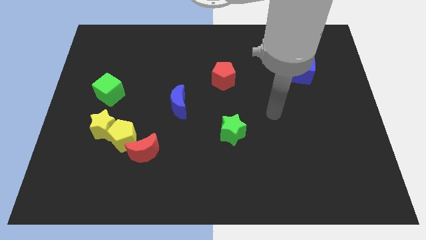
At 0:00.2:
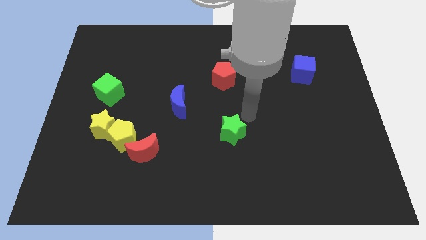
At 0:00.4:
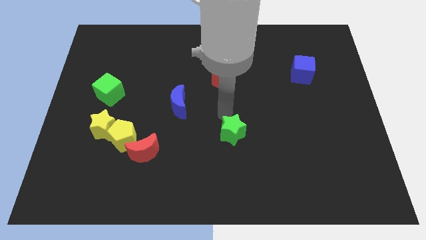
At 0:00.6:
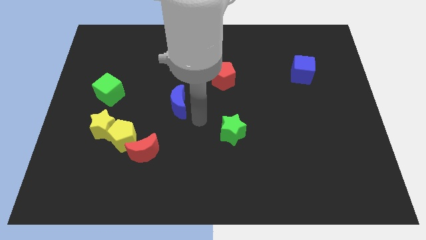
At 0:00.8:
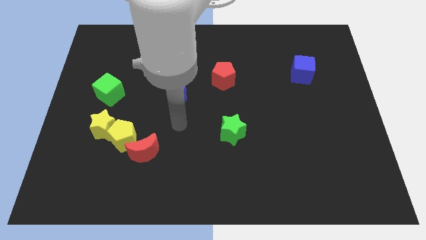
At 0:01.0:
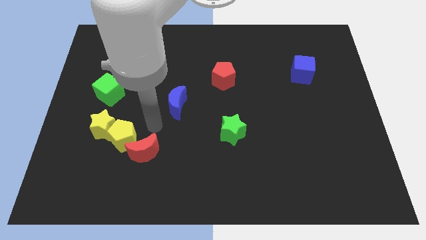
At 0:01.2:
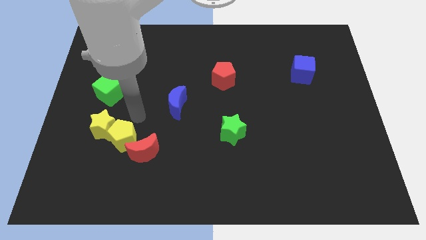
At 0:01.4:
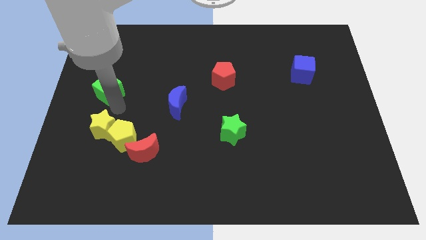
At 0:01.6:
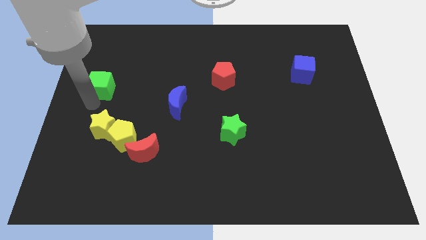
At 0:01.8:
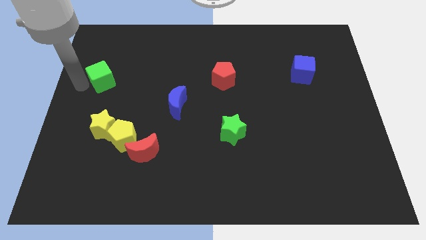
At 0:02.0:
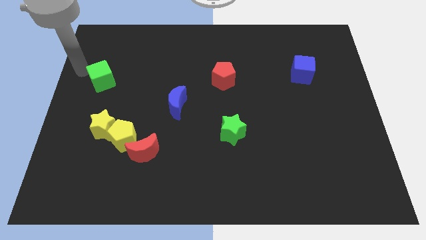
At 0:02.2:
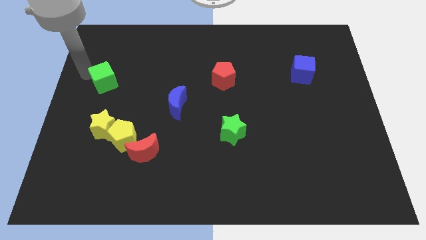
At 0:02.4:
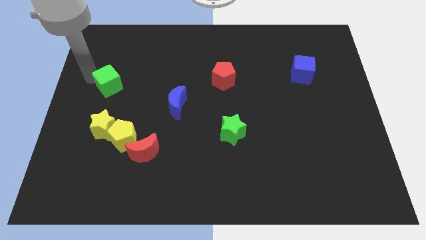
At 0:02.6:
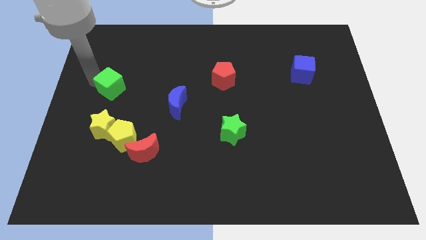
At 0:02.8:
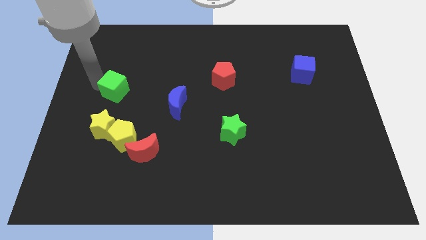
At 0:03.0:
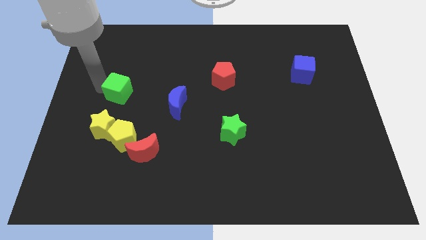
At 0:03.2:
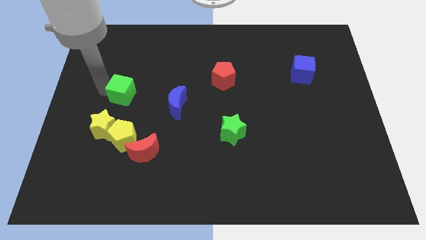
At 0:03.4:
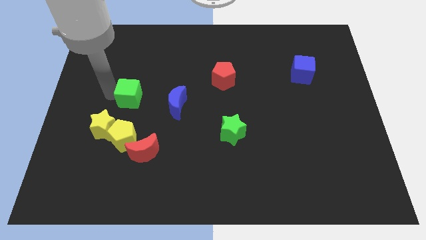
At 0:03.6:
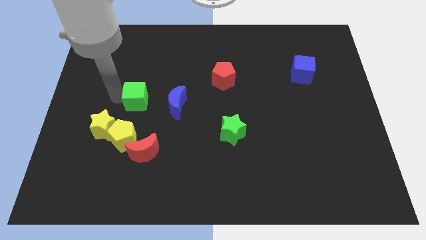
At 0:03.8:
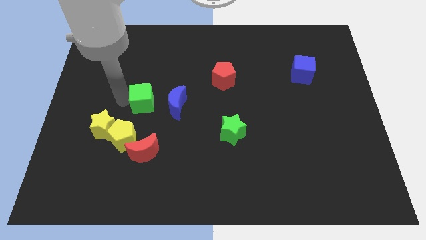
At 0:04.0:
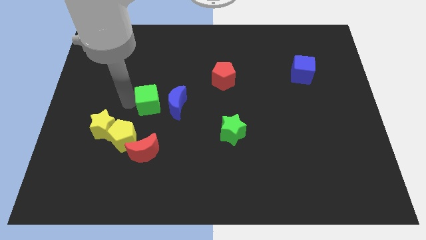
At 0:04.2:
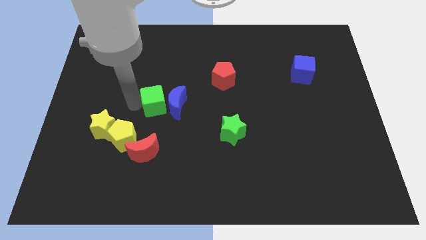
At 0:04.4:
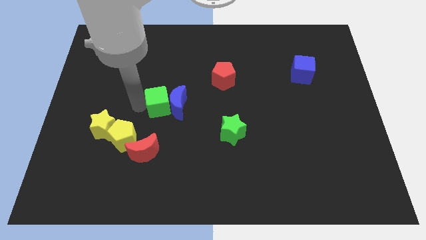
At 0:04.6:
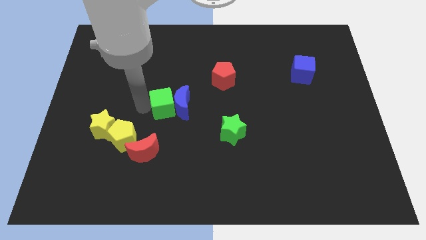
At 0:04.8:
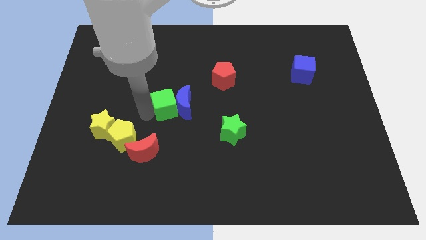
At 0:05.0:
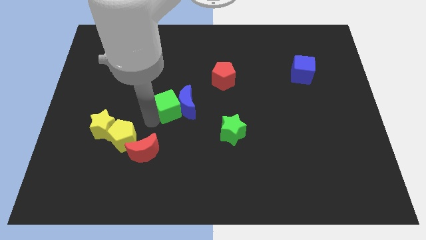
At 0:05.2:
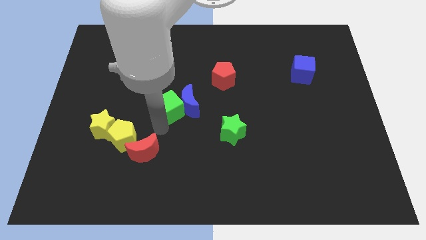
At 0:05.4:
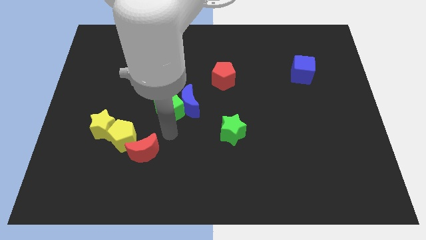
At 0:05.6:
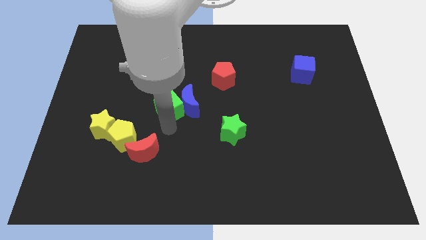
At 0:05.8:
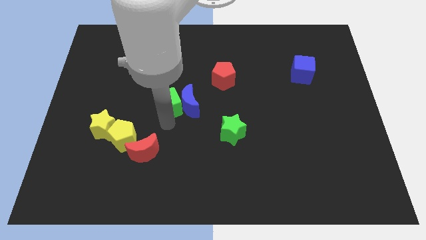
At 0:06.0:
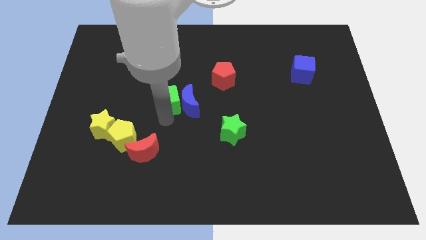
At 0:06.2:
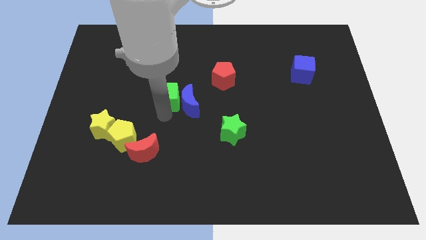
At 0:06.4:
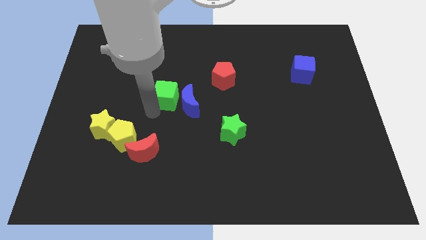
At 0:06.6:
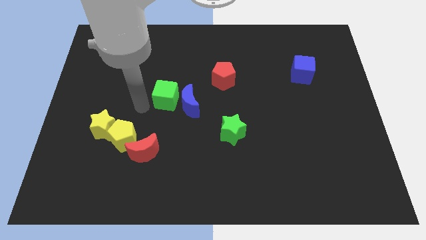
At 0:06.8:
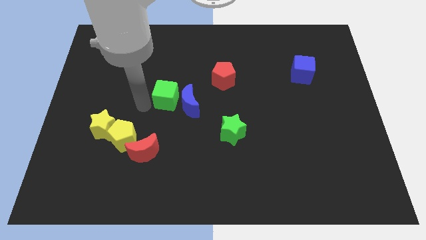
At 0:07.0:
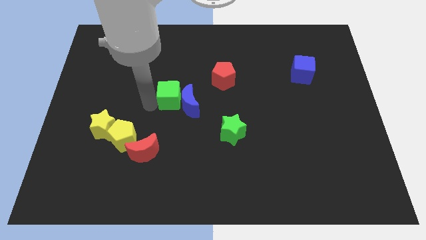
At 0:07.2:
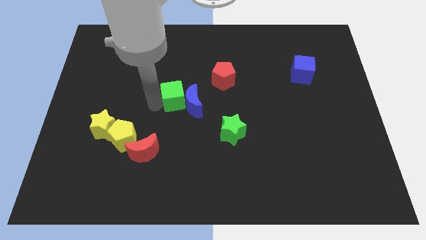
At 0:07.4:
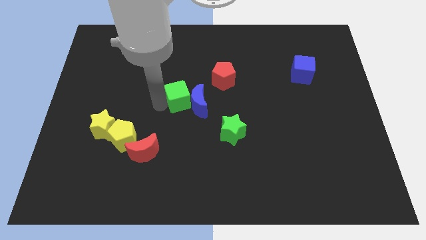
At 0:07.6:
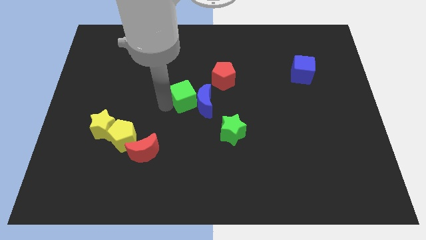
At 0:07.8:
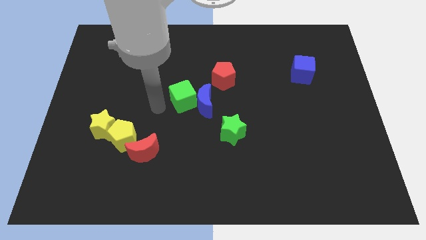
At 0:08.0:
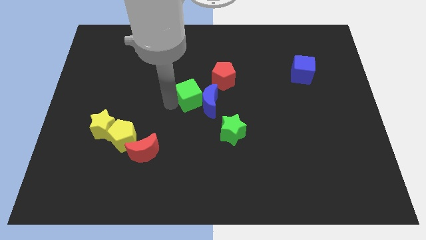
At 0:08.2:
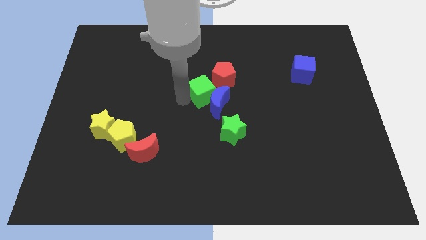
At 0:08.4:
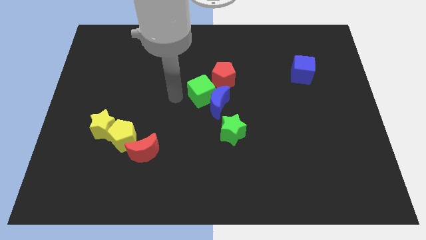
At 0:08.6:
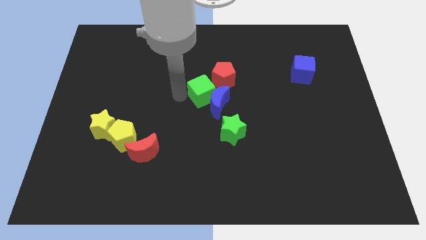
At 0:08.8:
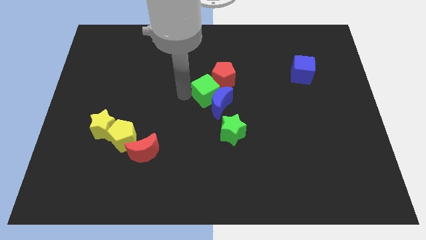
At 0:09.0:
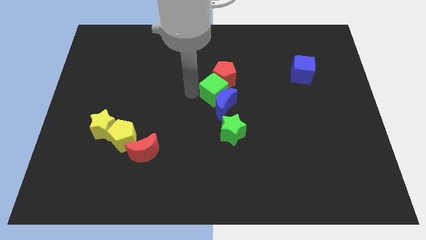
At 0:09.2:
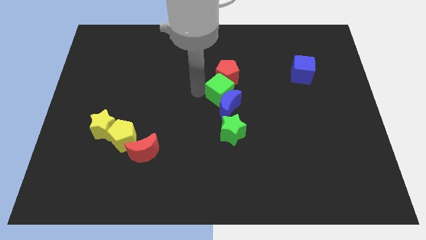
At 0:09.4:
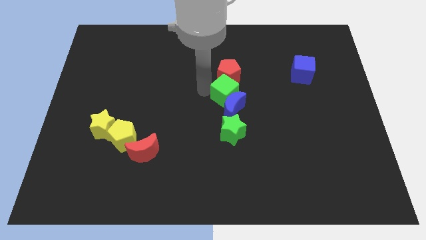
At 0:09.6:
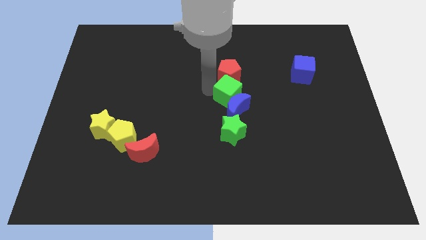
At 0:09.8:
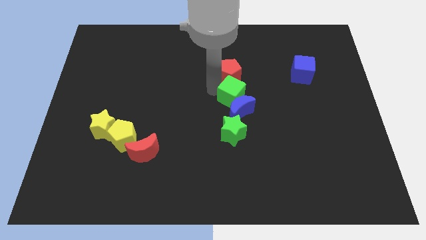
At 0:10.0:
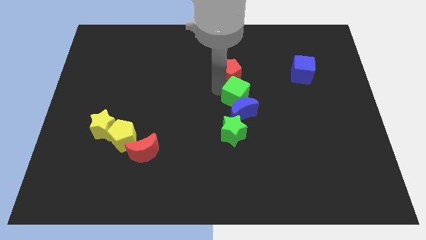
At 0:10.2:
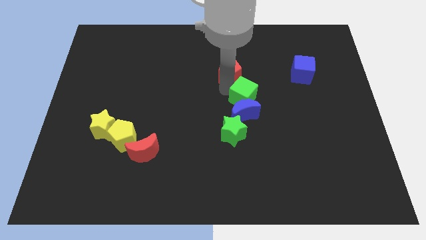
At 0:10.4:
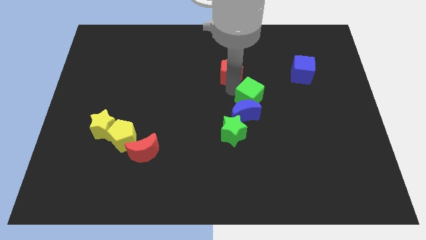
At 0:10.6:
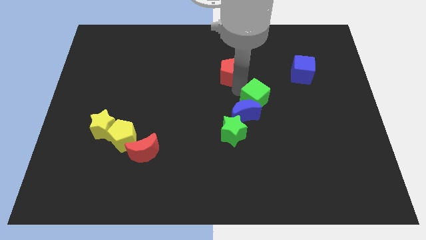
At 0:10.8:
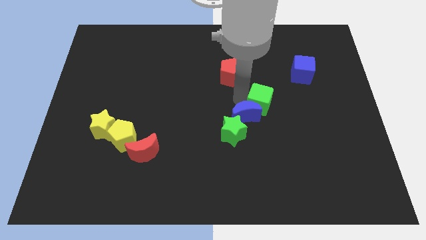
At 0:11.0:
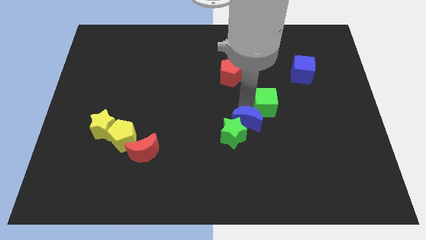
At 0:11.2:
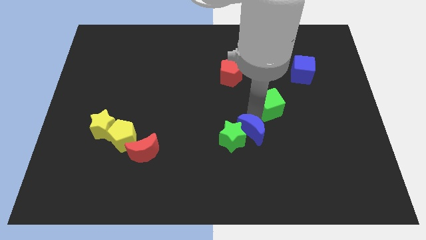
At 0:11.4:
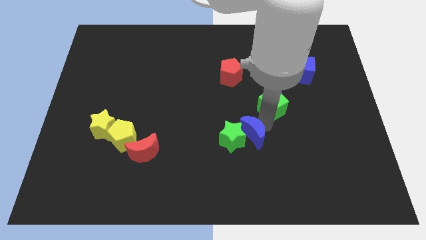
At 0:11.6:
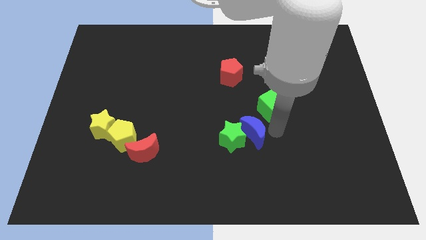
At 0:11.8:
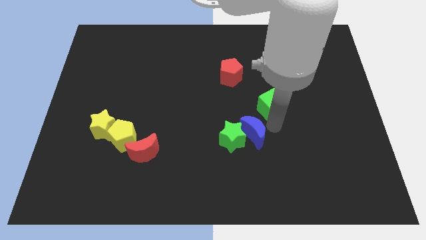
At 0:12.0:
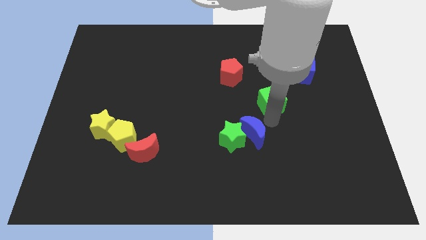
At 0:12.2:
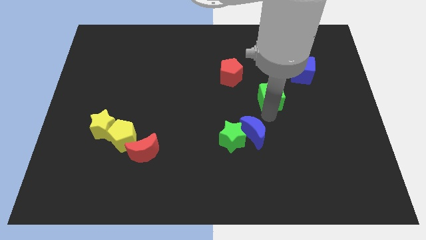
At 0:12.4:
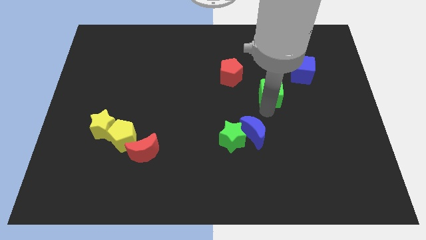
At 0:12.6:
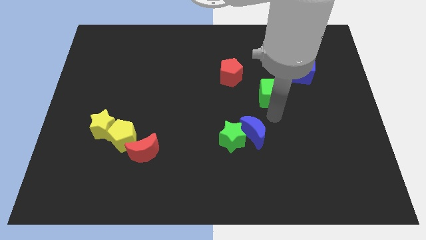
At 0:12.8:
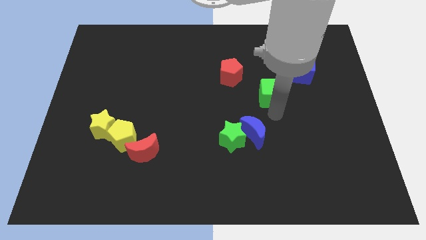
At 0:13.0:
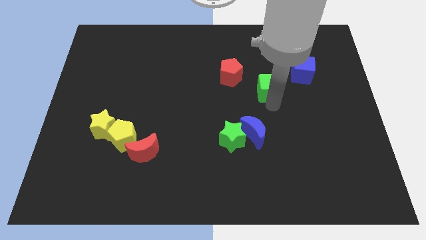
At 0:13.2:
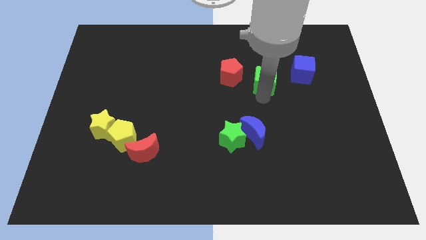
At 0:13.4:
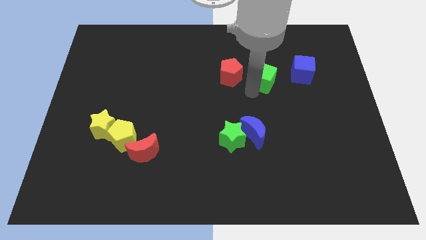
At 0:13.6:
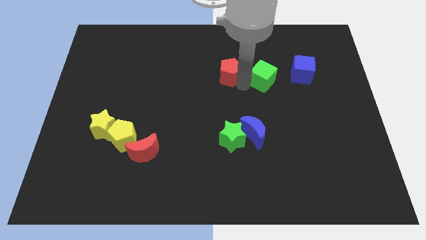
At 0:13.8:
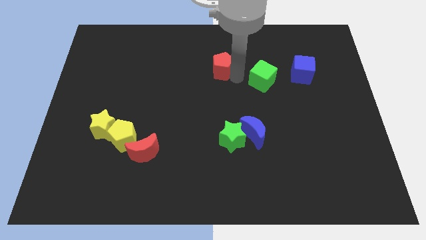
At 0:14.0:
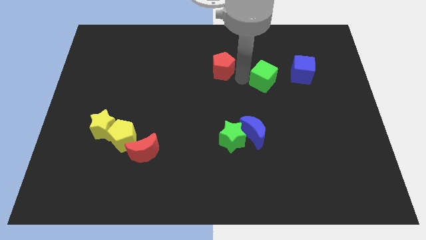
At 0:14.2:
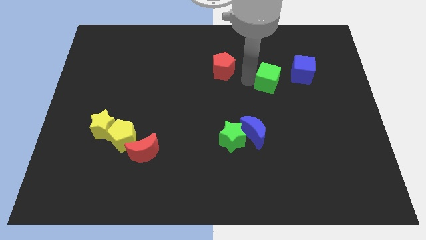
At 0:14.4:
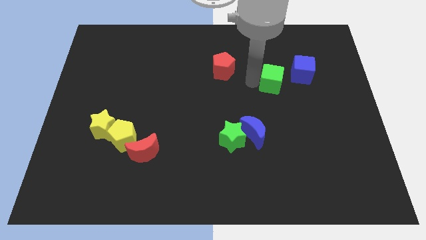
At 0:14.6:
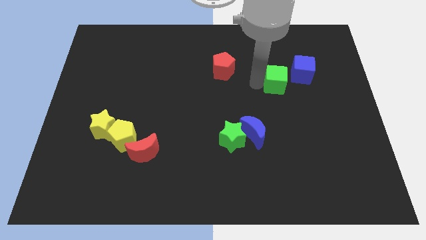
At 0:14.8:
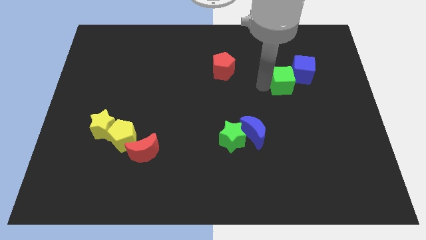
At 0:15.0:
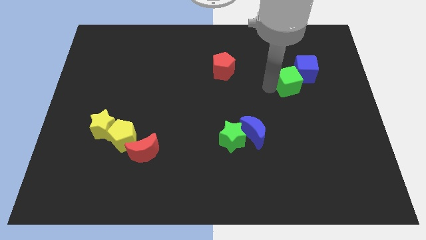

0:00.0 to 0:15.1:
put the green cube towards the blue cube
